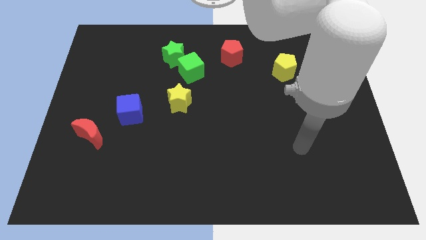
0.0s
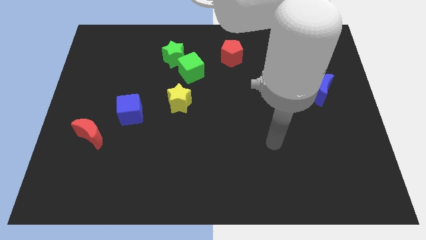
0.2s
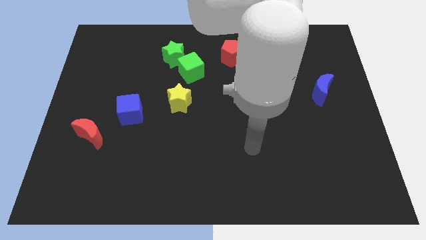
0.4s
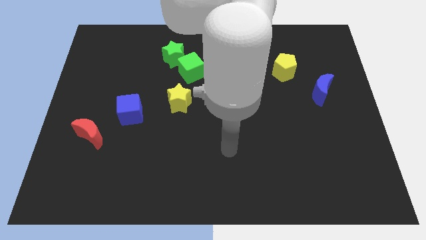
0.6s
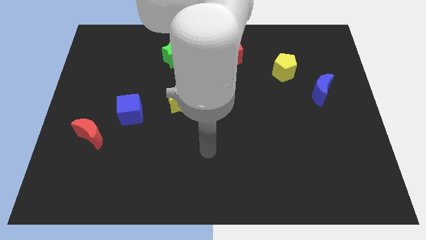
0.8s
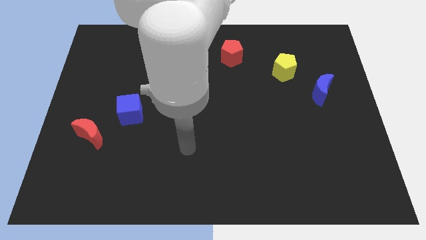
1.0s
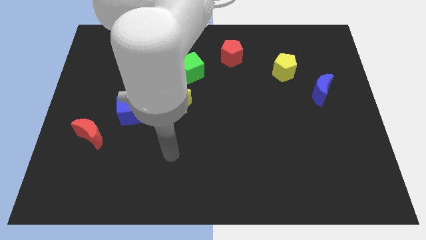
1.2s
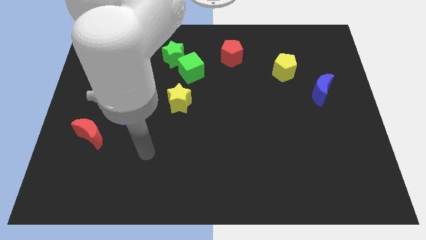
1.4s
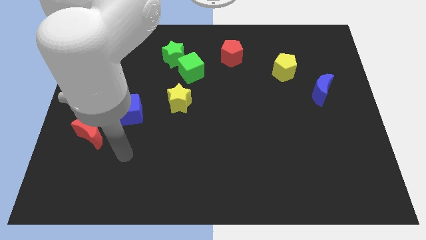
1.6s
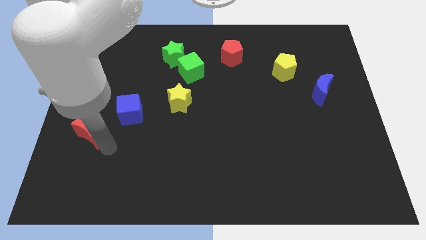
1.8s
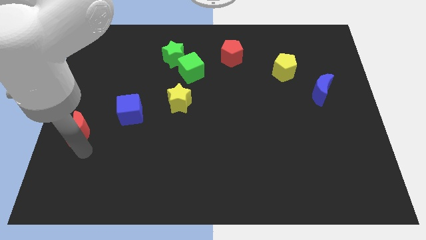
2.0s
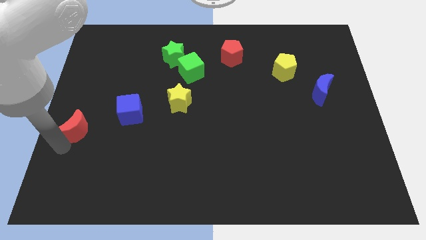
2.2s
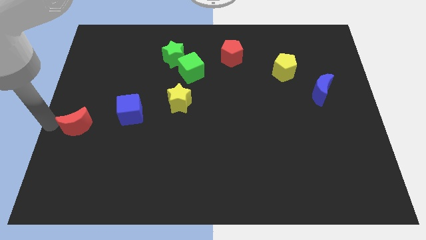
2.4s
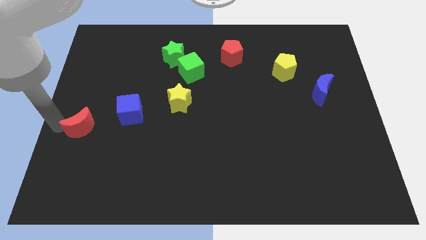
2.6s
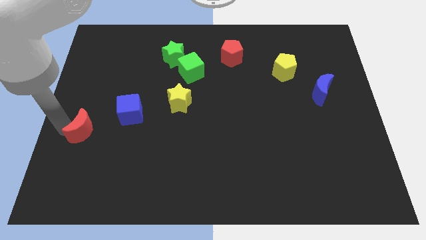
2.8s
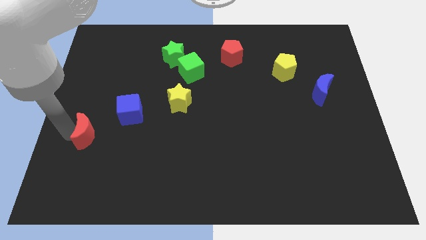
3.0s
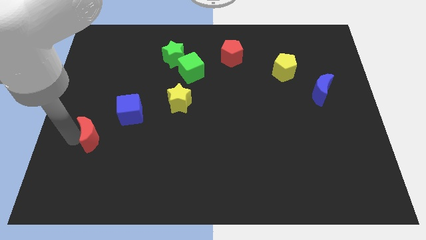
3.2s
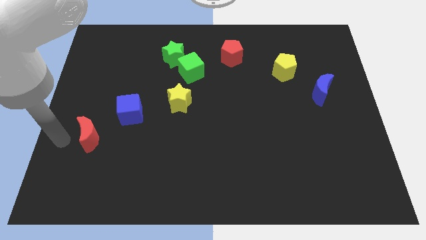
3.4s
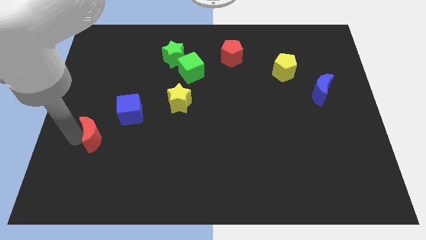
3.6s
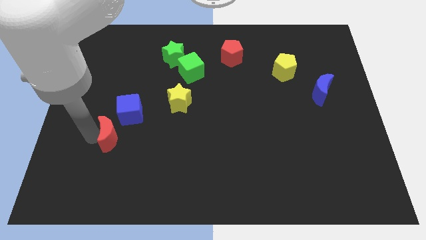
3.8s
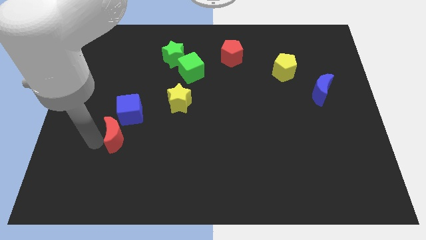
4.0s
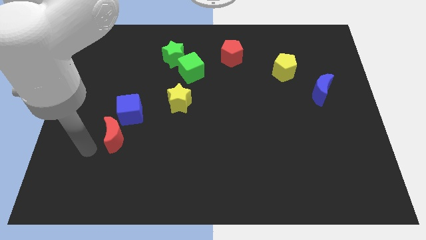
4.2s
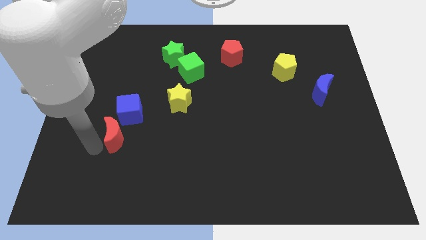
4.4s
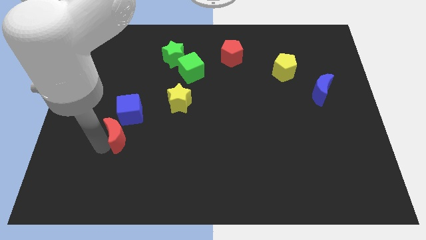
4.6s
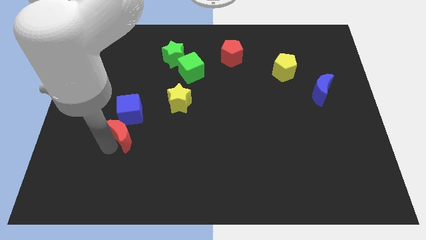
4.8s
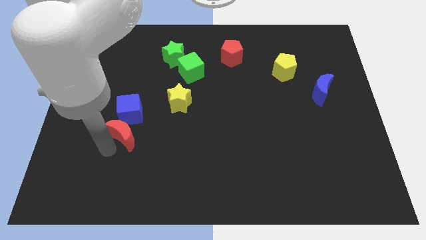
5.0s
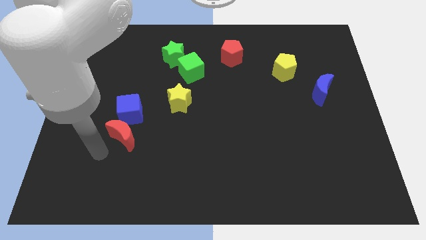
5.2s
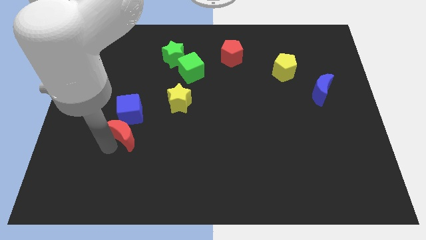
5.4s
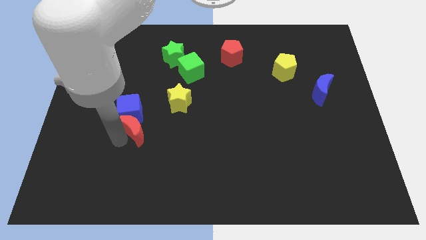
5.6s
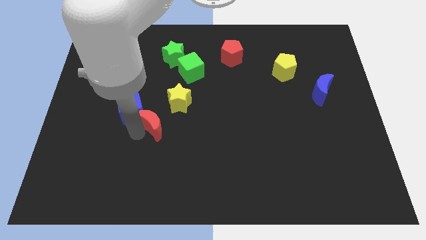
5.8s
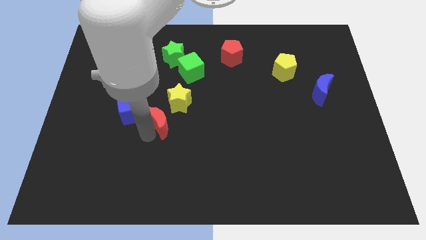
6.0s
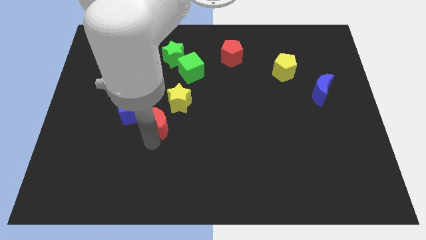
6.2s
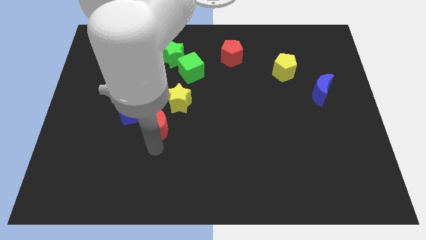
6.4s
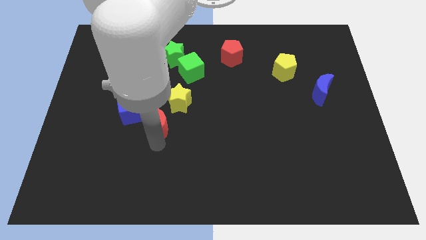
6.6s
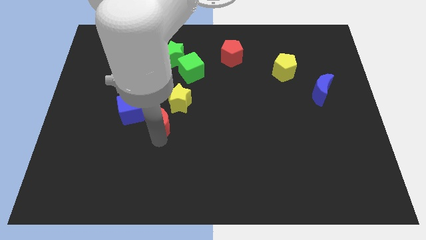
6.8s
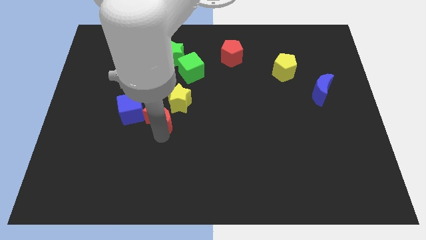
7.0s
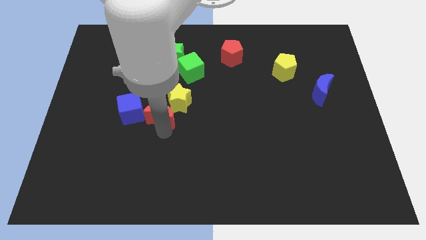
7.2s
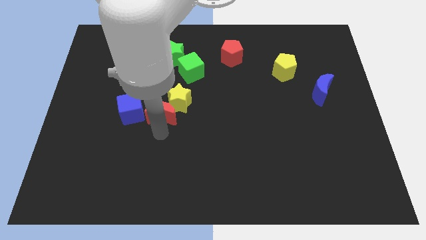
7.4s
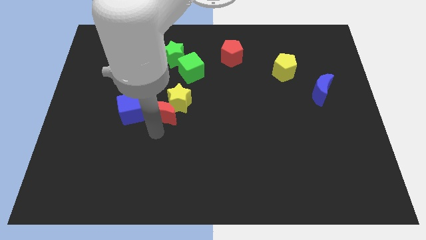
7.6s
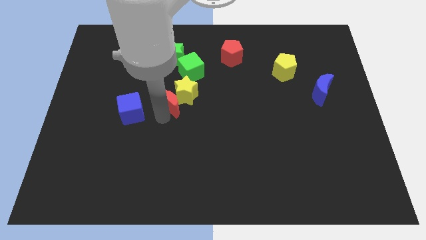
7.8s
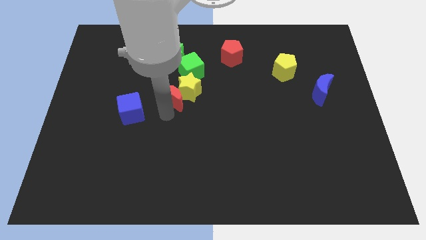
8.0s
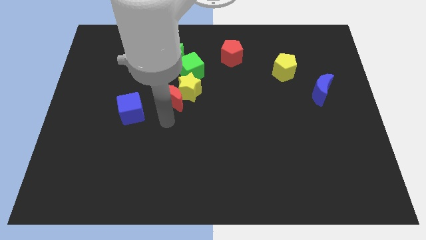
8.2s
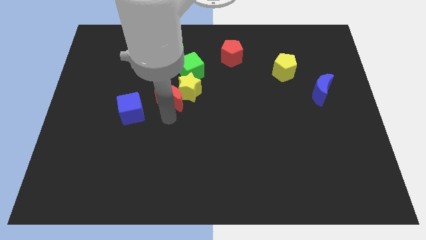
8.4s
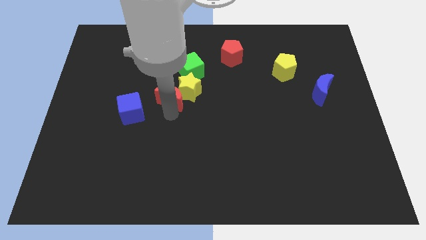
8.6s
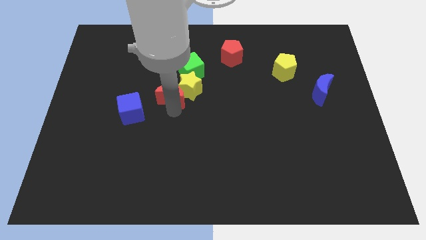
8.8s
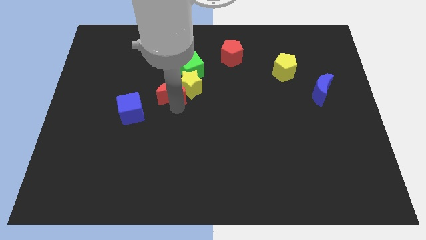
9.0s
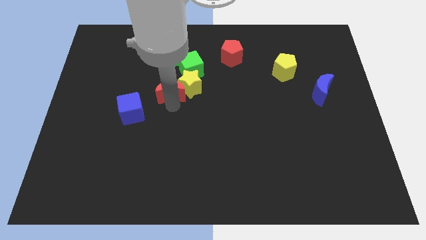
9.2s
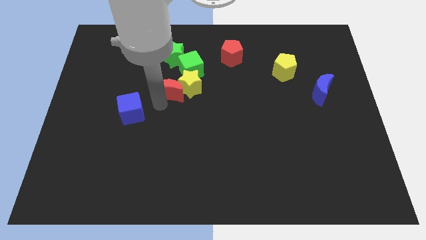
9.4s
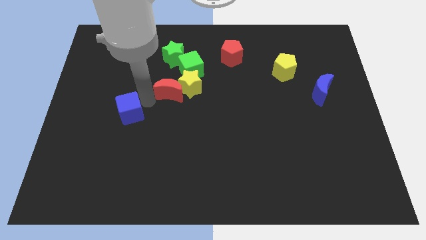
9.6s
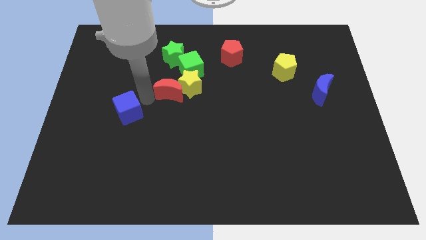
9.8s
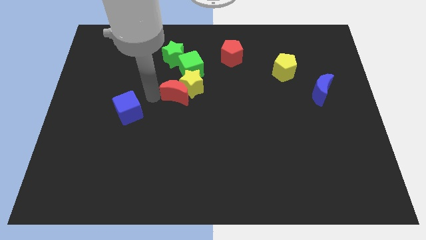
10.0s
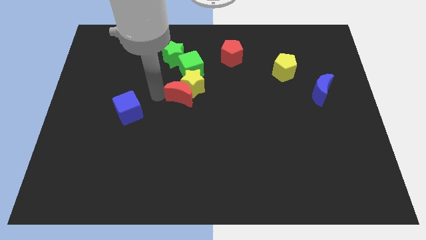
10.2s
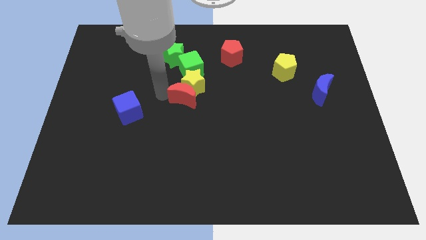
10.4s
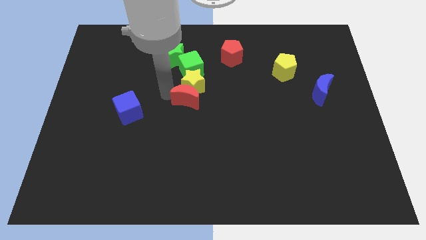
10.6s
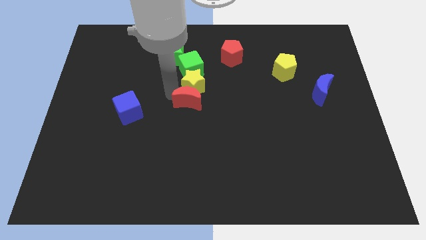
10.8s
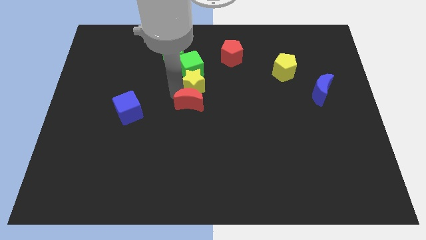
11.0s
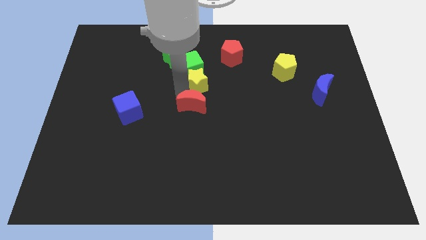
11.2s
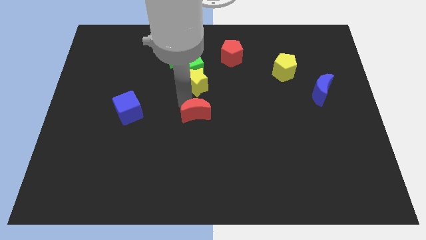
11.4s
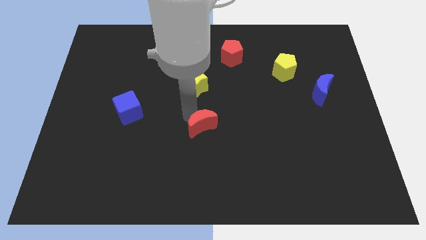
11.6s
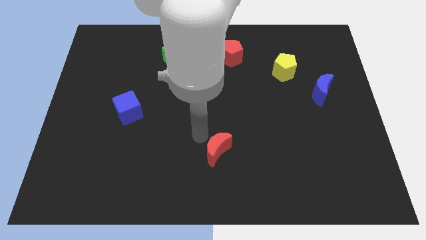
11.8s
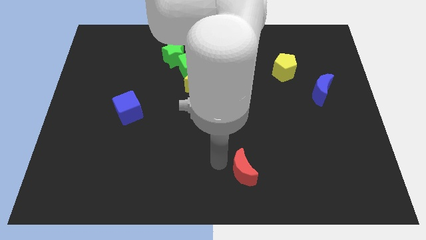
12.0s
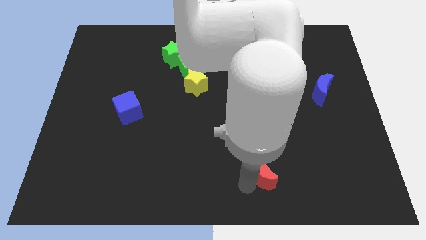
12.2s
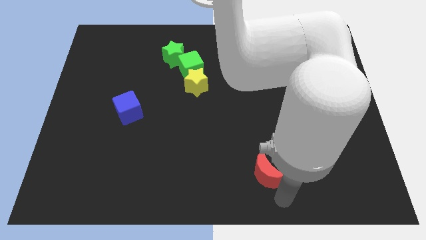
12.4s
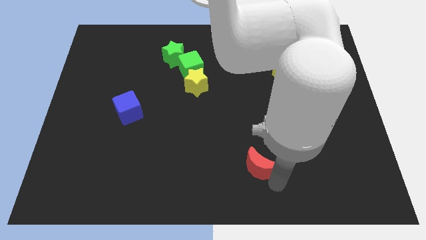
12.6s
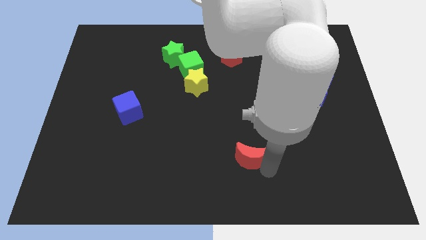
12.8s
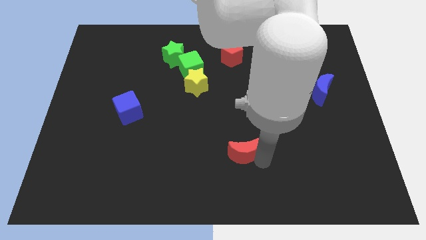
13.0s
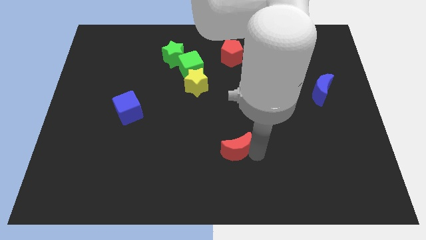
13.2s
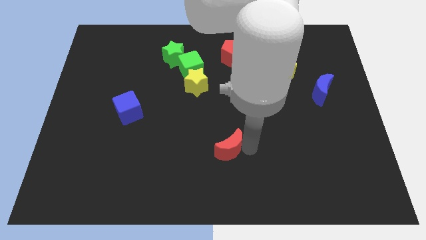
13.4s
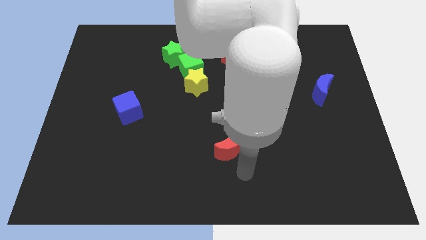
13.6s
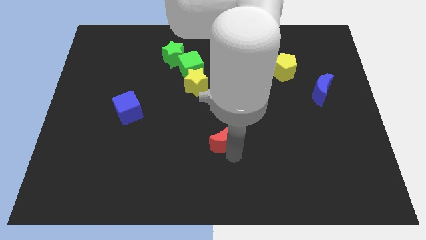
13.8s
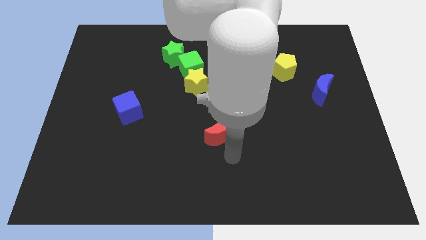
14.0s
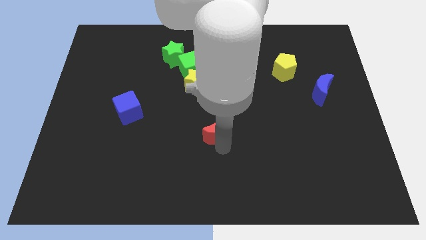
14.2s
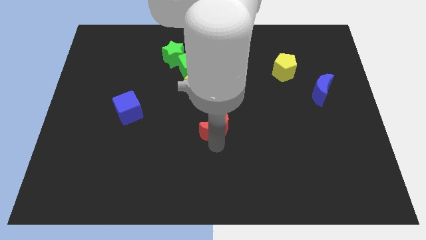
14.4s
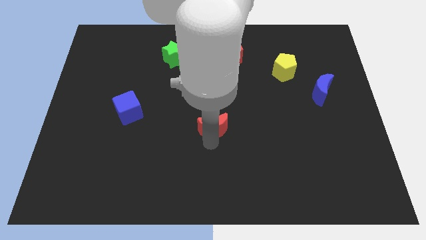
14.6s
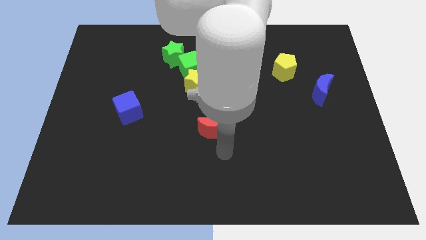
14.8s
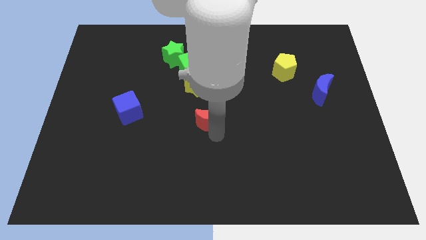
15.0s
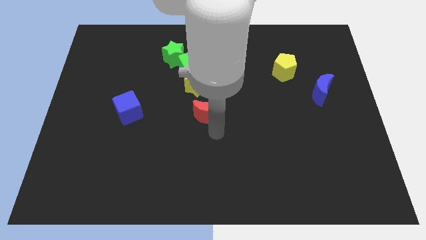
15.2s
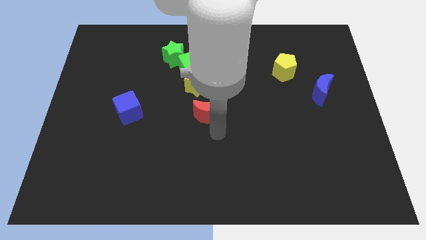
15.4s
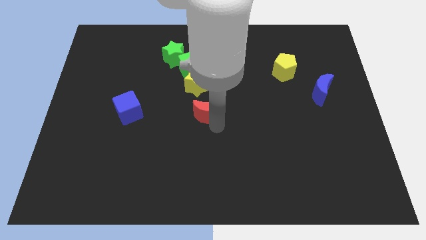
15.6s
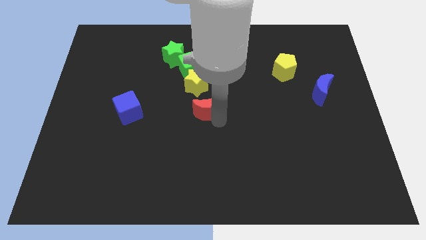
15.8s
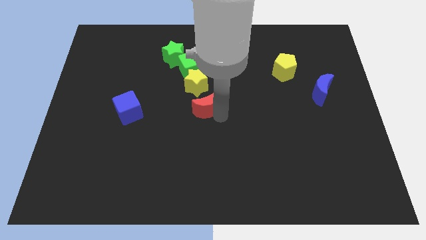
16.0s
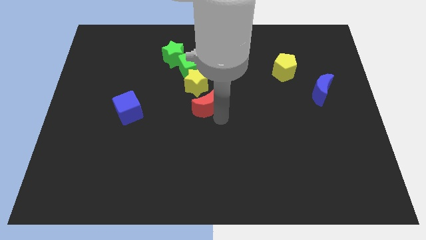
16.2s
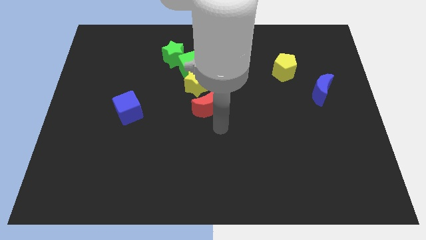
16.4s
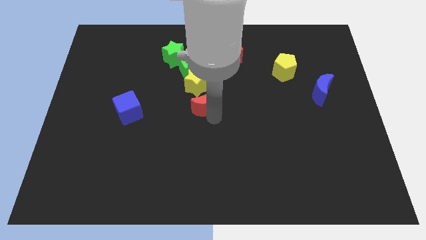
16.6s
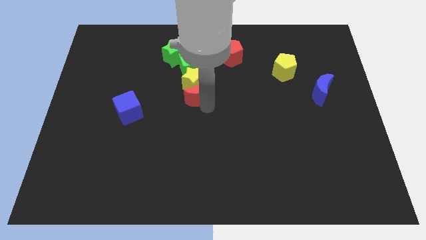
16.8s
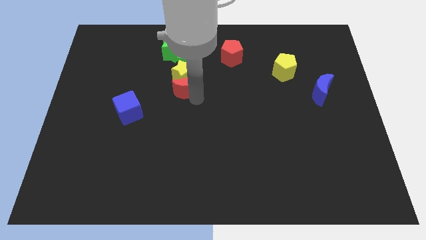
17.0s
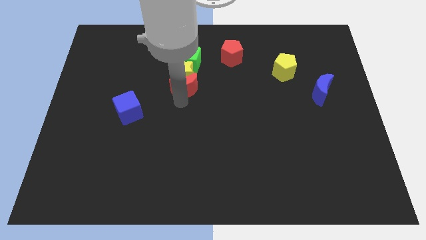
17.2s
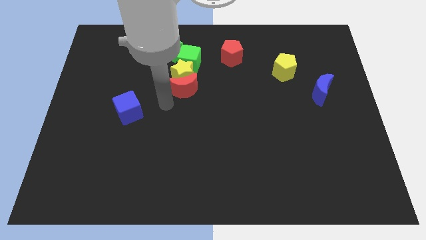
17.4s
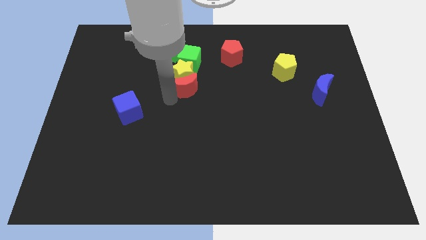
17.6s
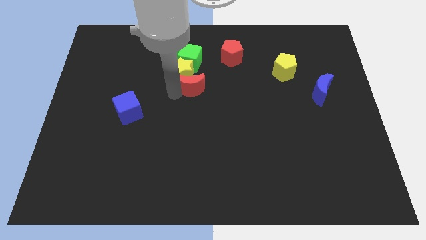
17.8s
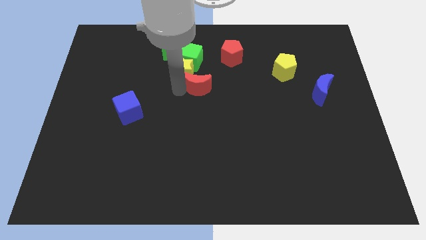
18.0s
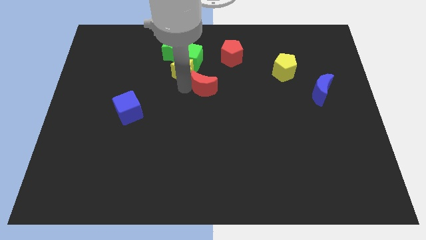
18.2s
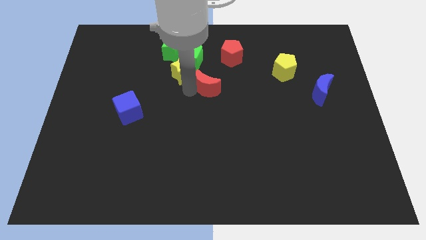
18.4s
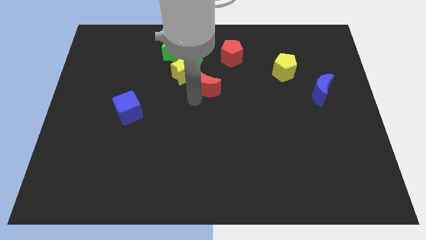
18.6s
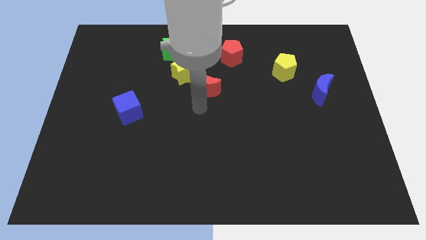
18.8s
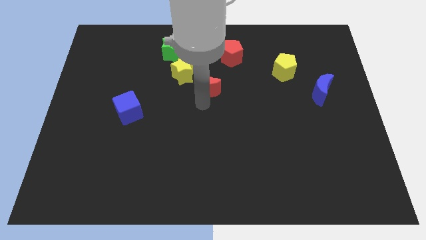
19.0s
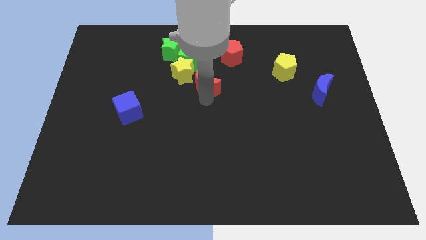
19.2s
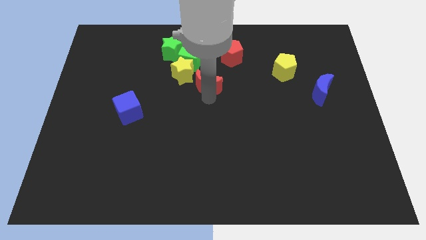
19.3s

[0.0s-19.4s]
push the red moon to the bottom left side of the red pentagon
